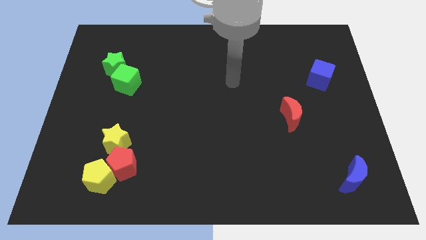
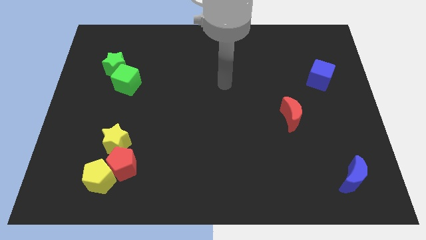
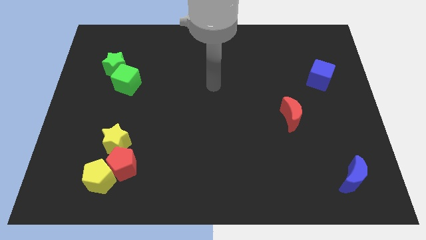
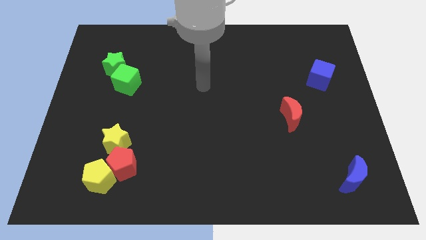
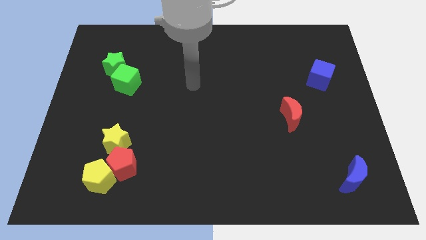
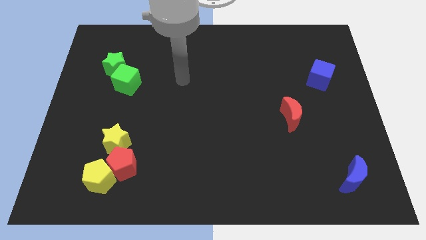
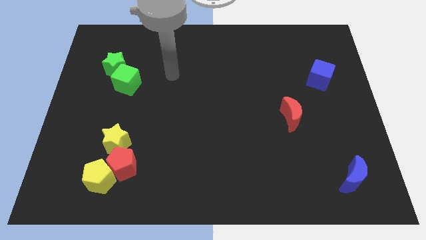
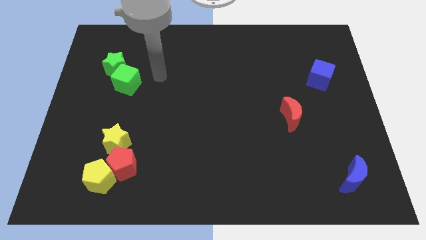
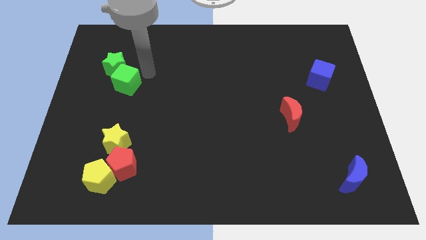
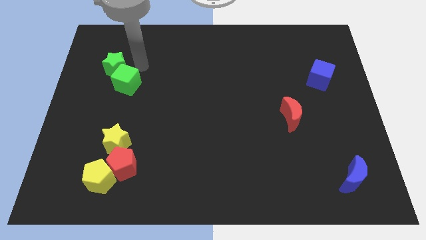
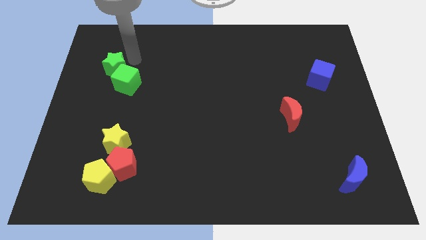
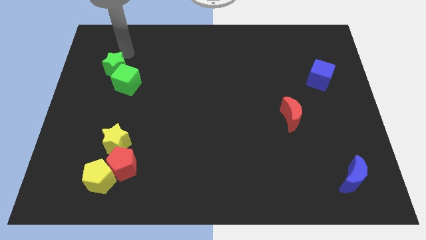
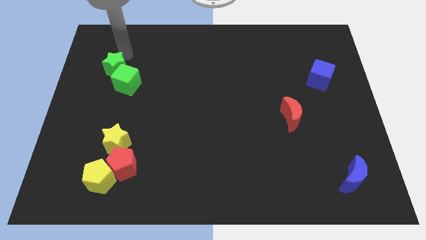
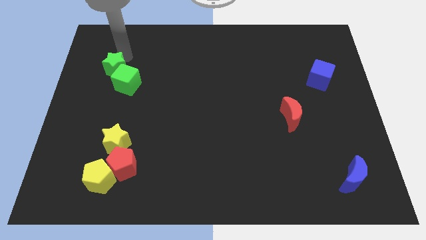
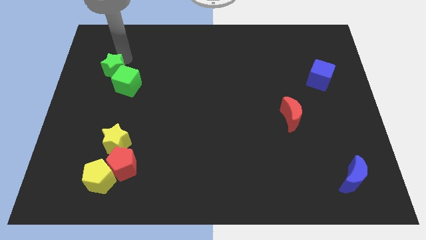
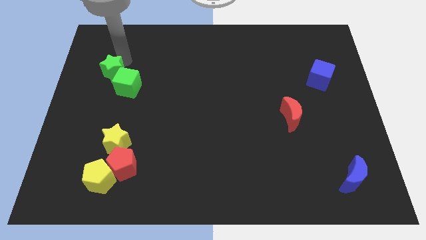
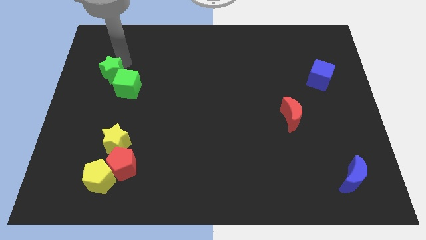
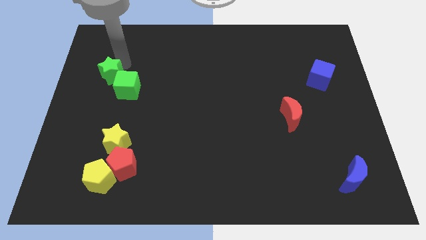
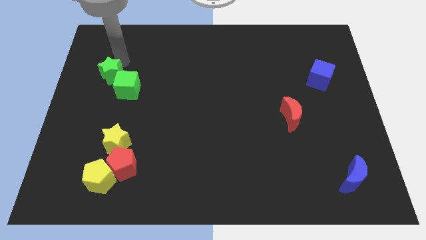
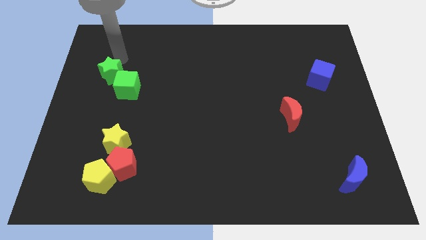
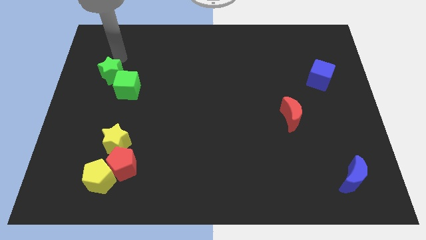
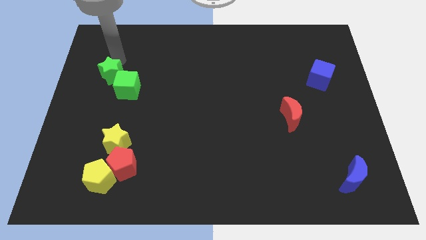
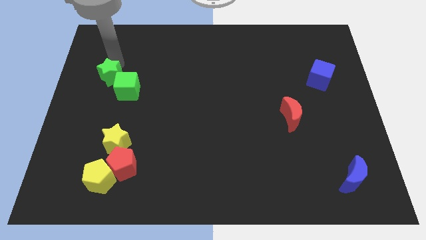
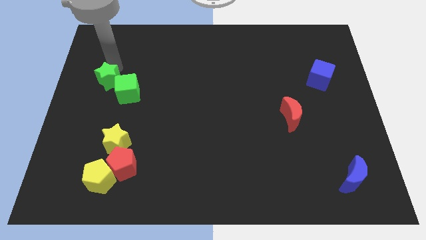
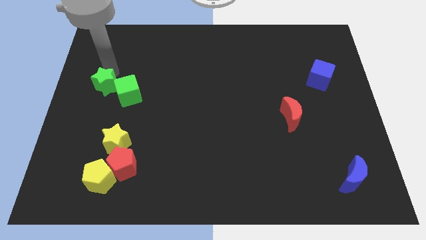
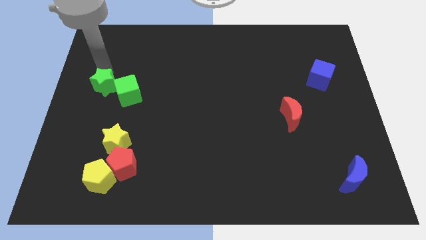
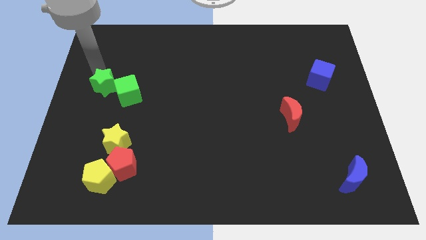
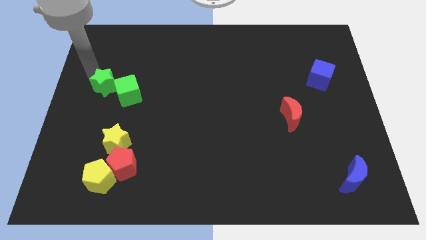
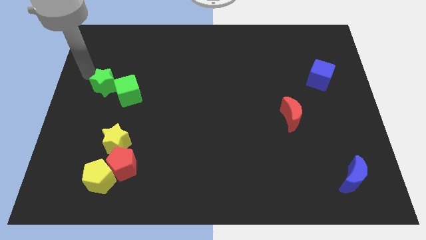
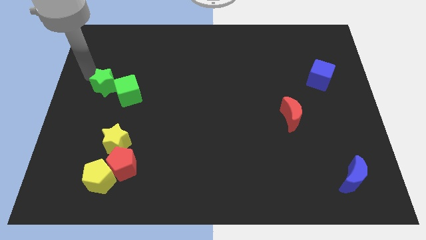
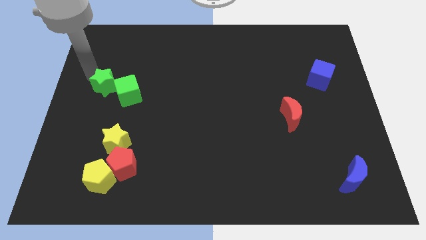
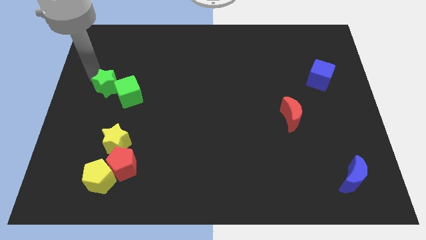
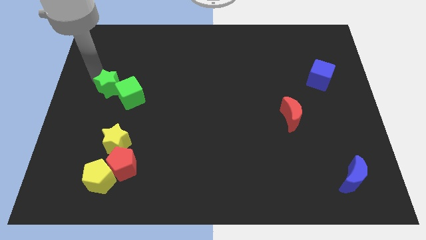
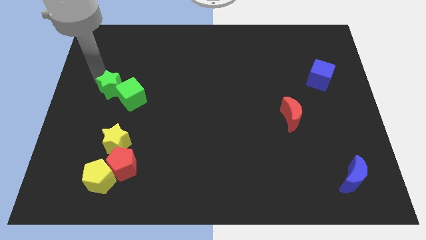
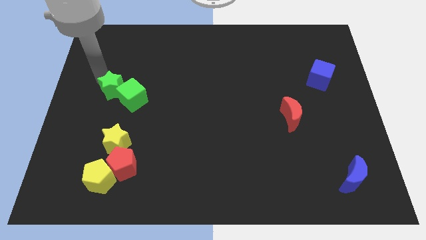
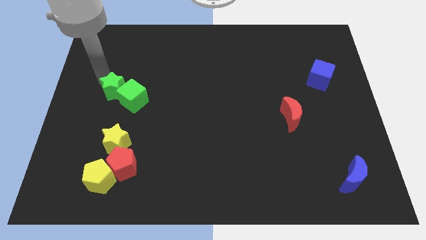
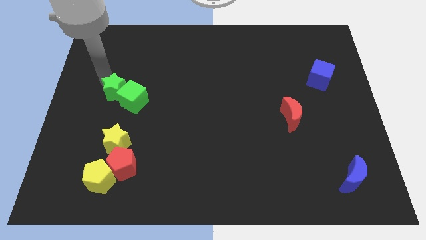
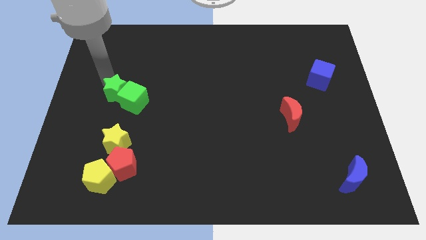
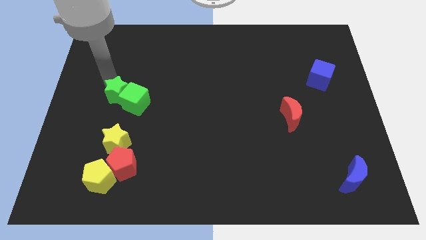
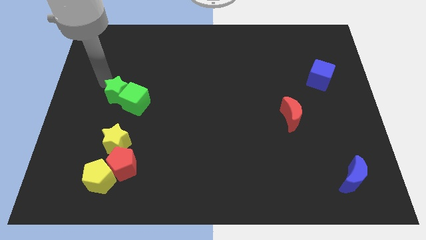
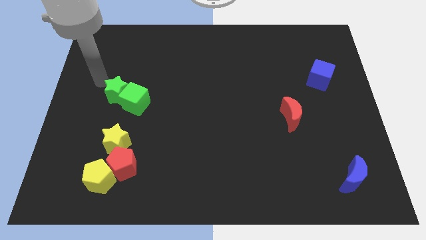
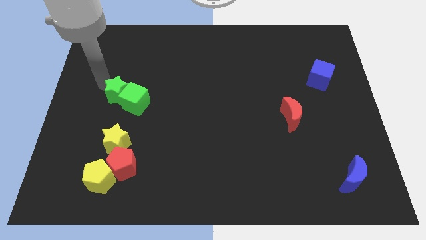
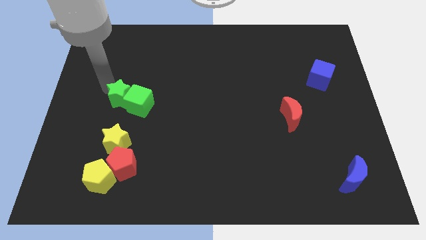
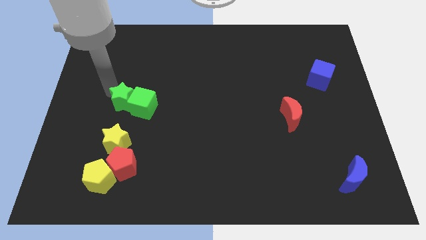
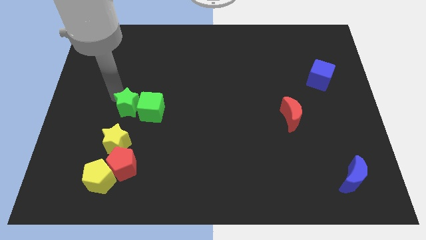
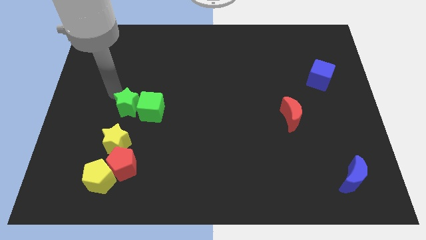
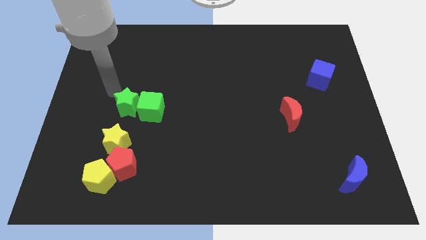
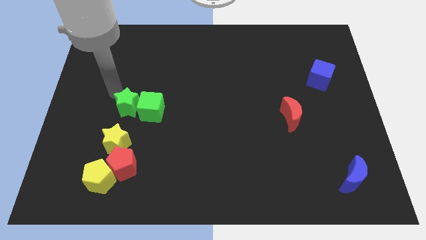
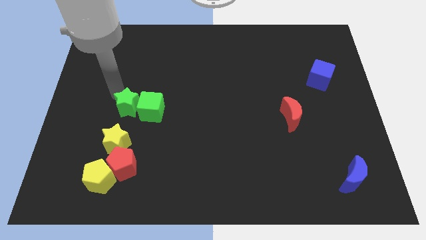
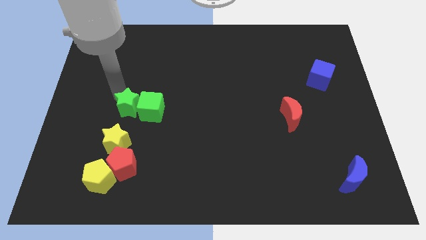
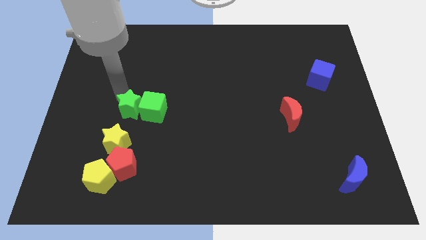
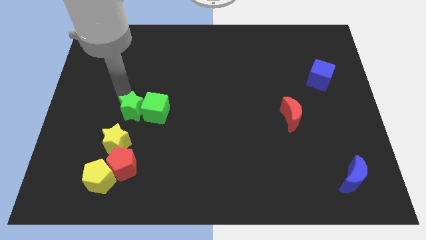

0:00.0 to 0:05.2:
move the green star diagonally up and to the right of the yellow star

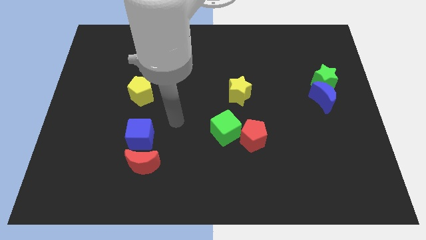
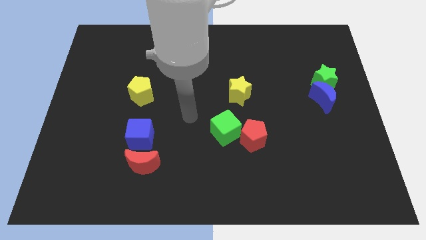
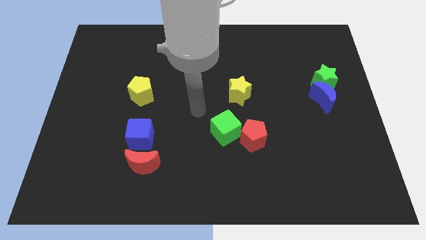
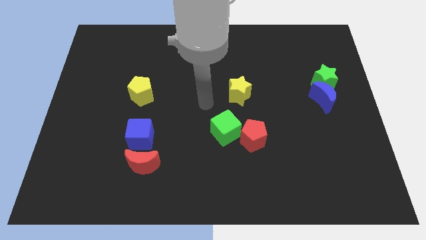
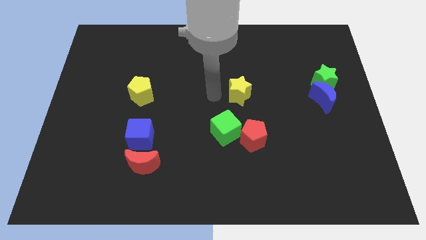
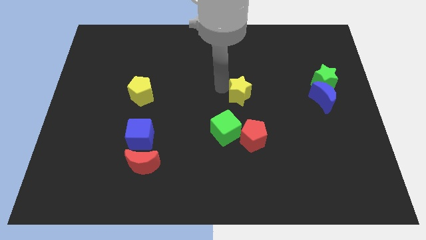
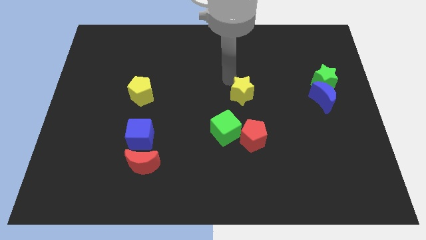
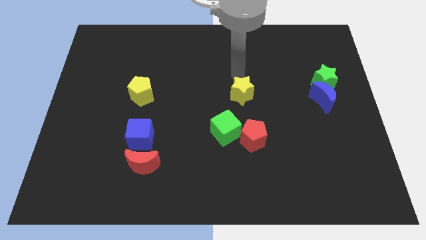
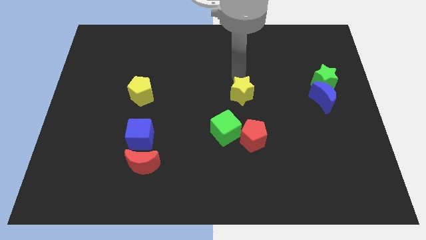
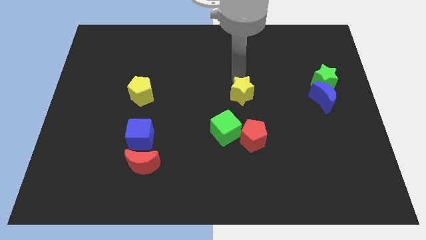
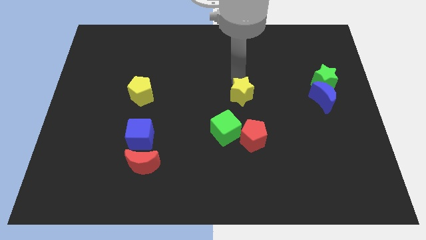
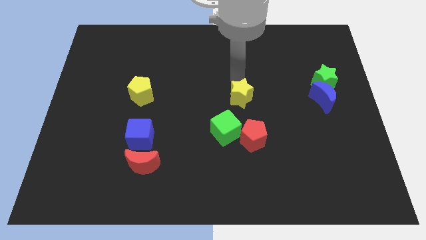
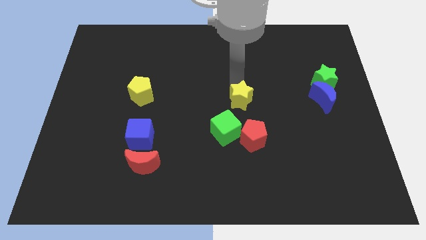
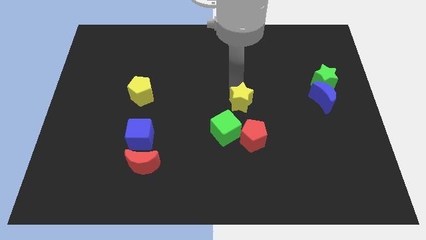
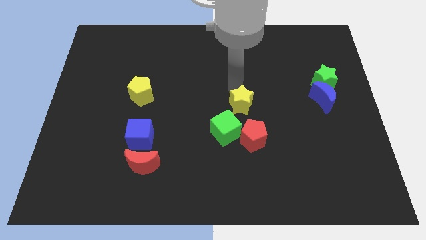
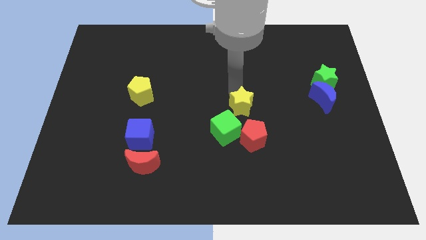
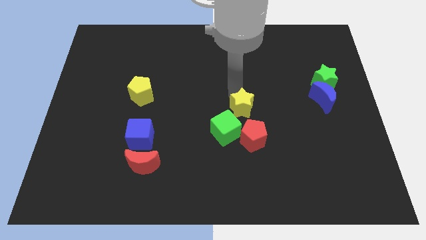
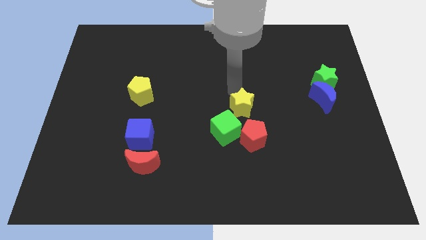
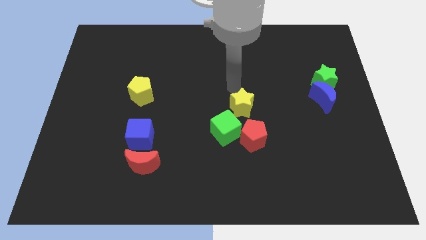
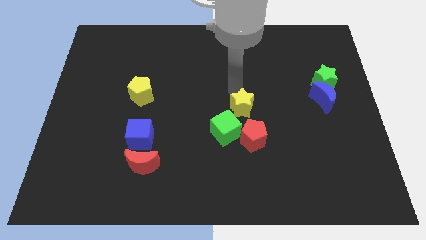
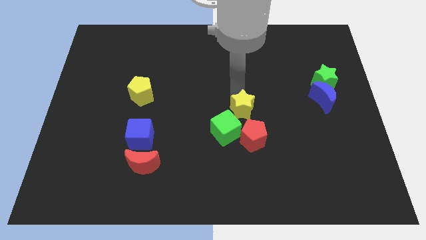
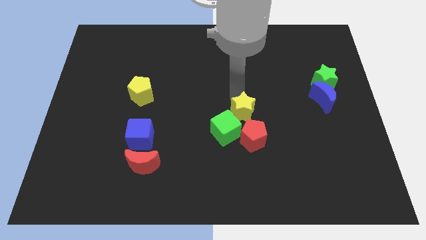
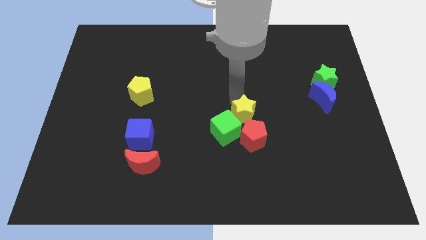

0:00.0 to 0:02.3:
put the yellow star just right of the green cube

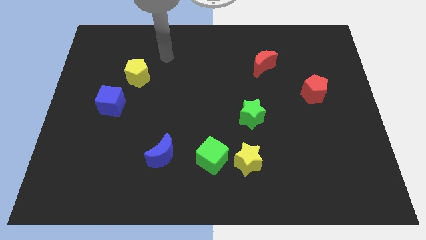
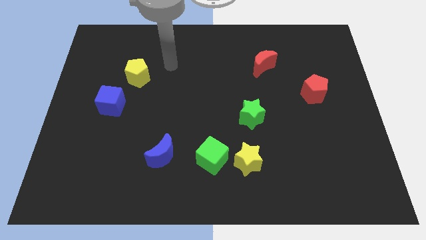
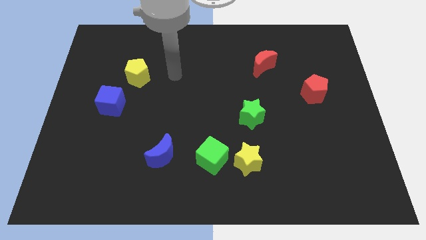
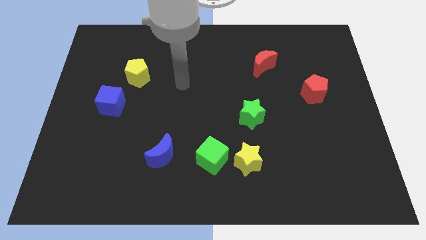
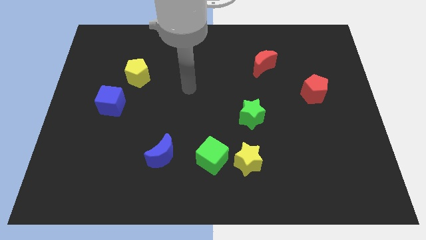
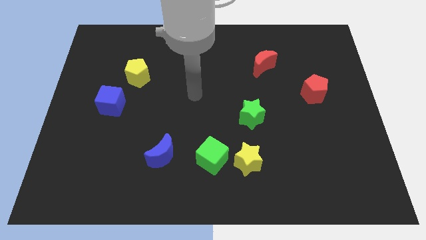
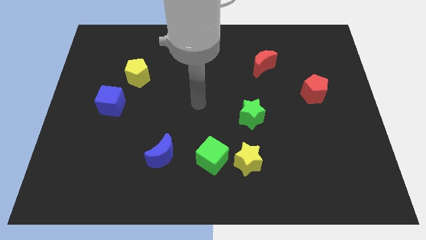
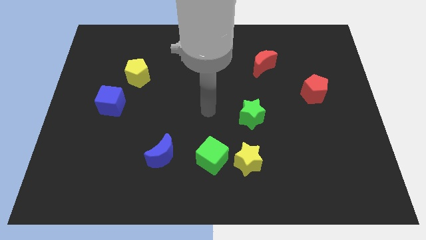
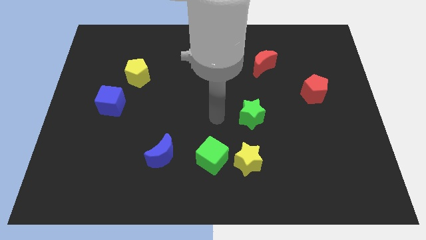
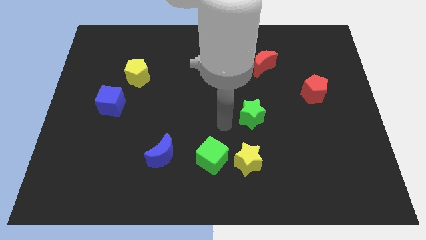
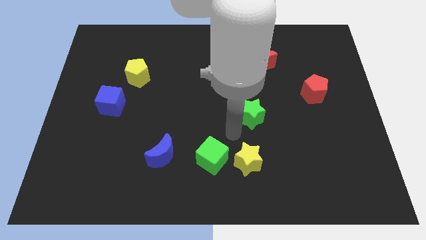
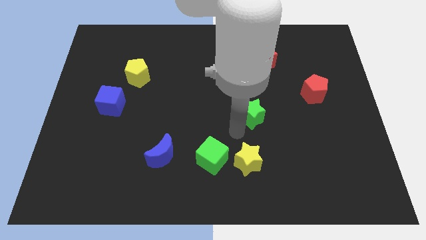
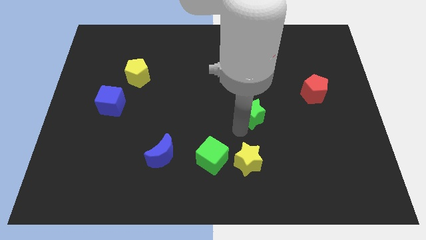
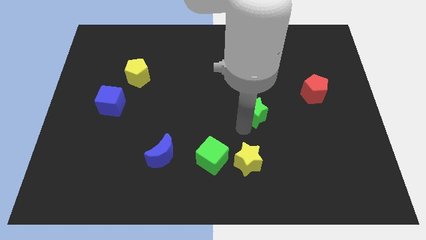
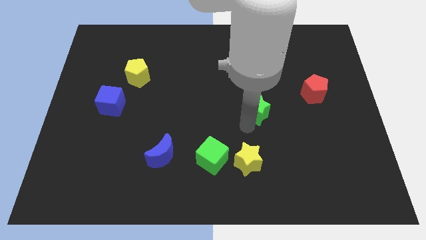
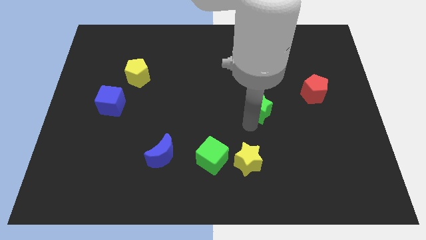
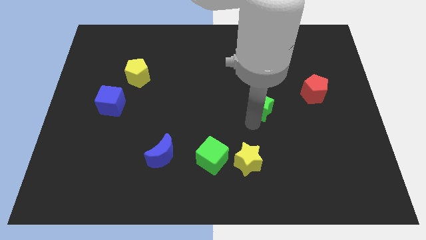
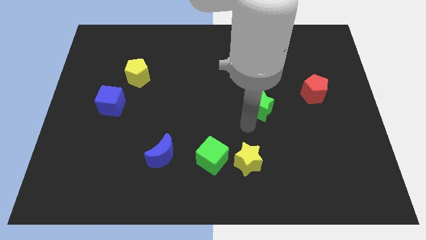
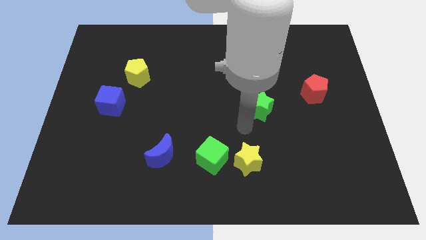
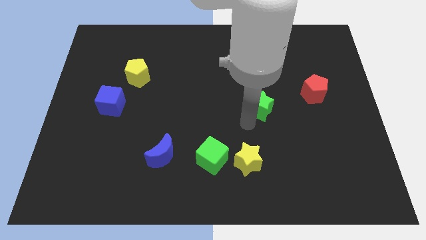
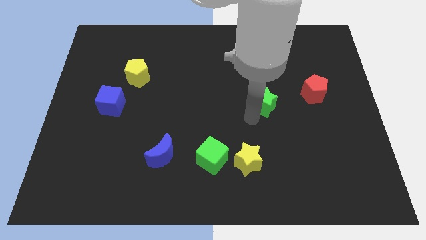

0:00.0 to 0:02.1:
push the green star left of the red pentagon
